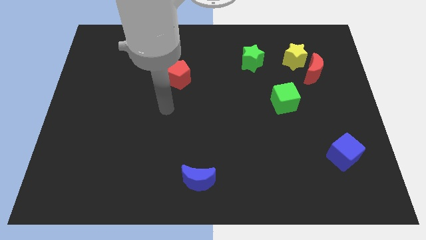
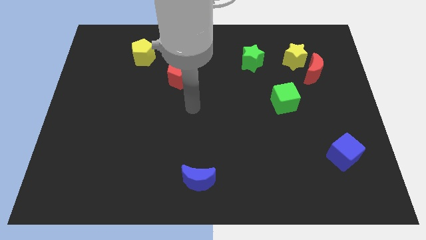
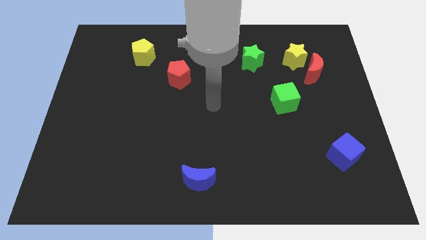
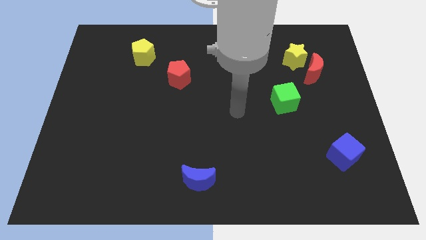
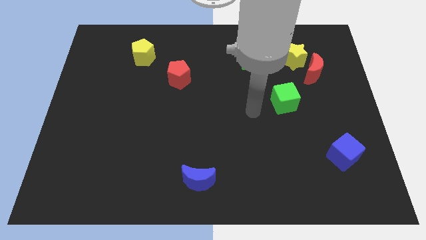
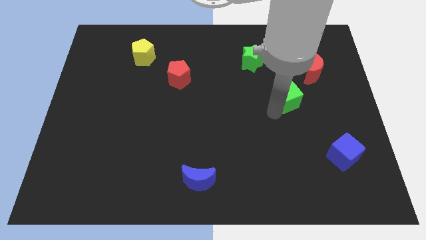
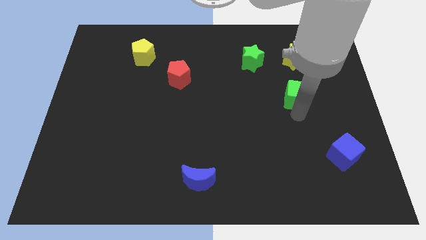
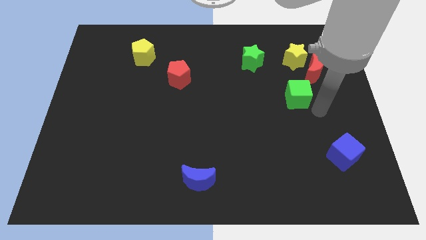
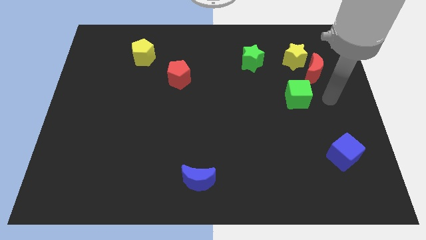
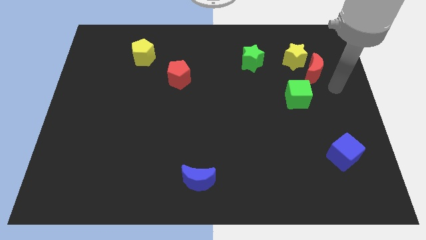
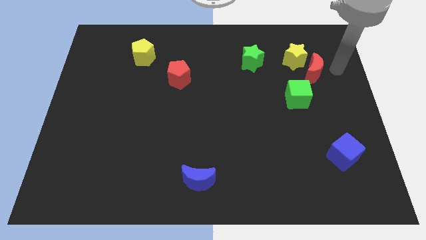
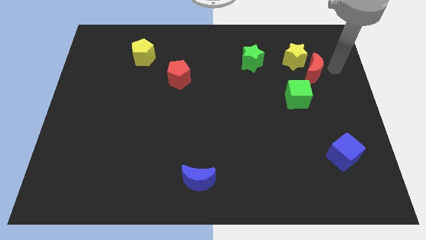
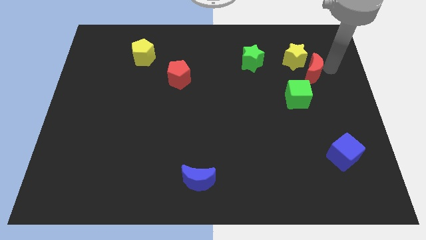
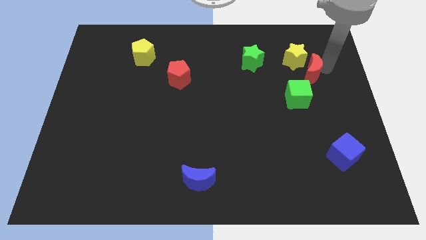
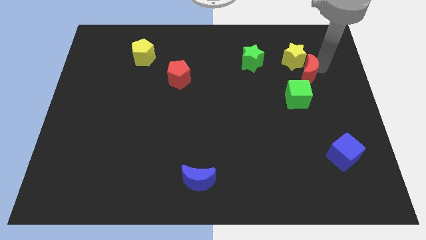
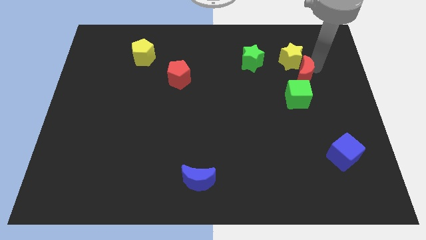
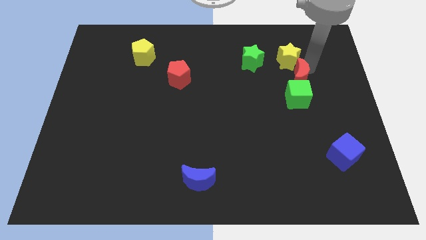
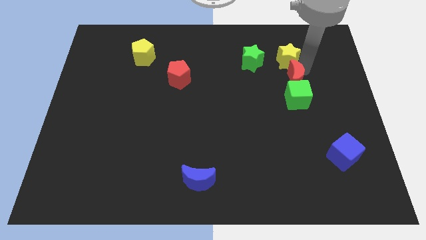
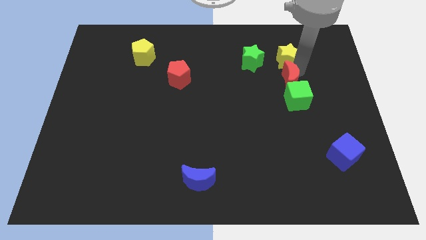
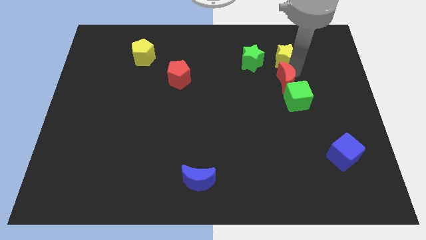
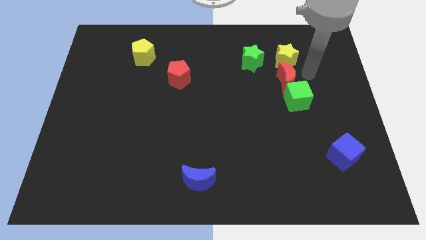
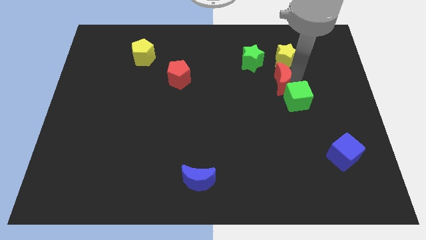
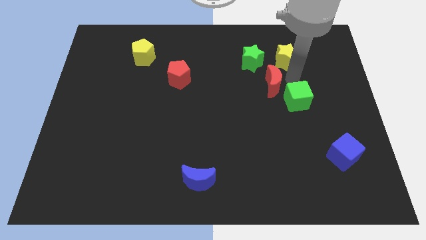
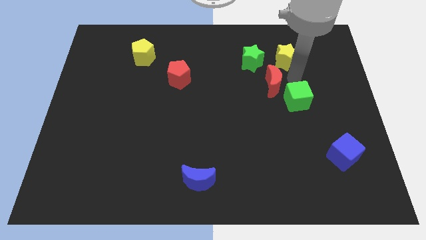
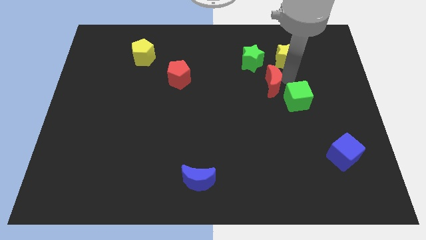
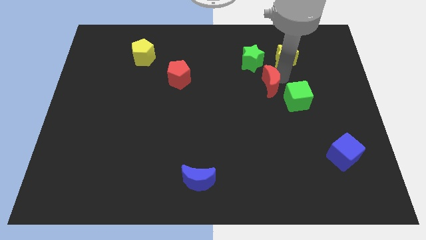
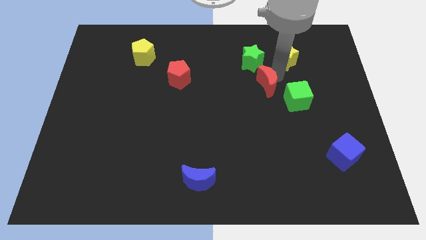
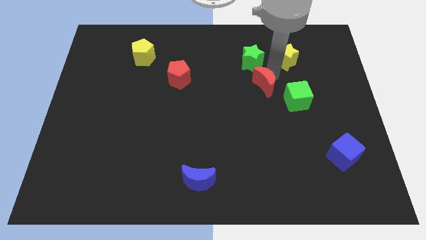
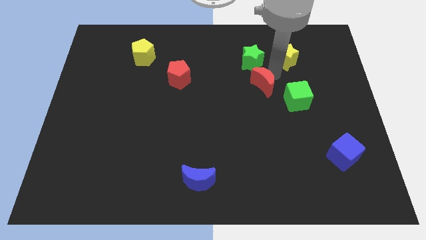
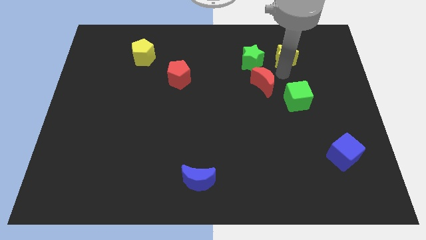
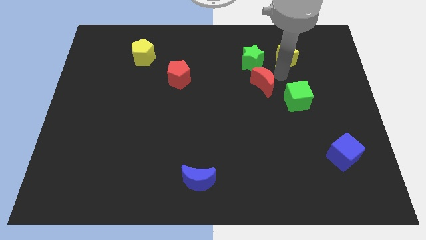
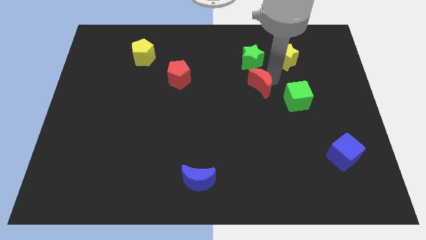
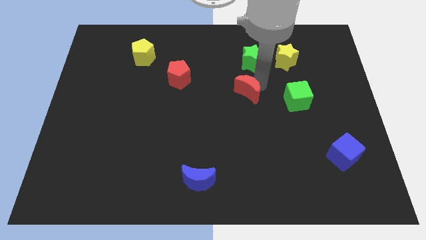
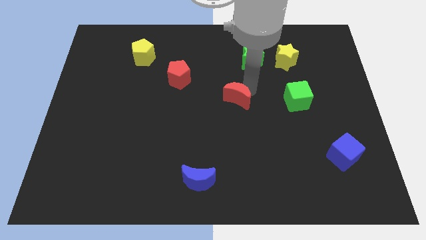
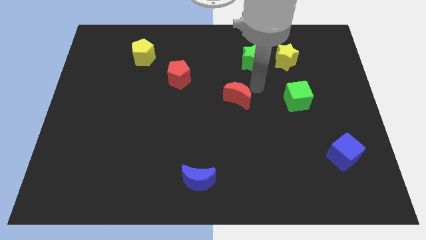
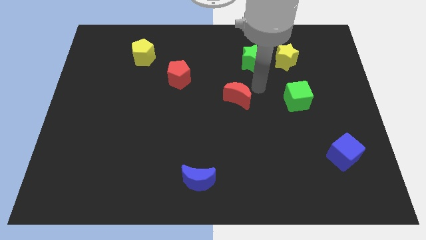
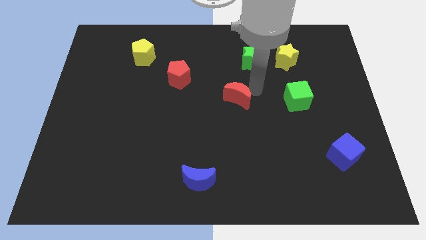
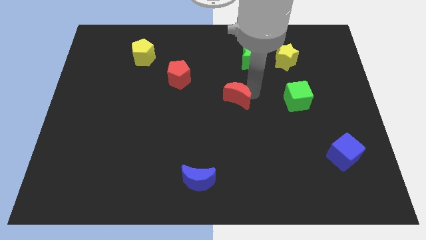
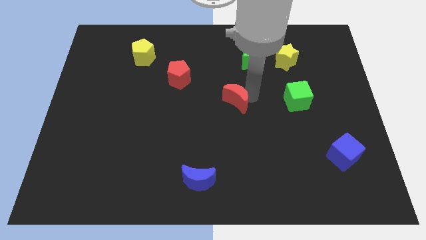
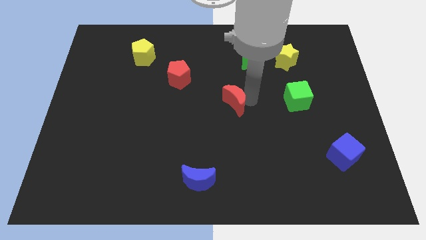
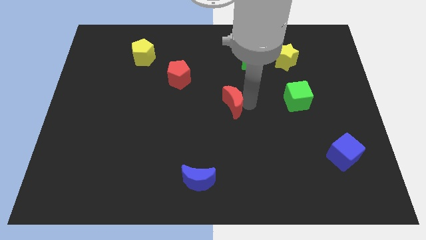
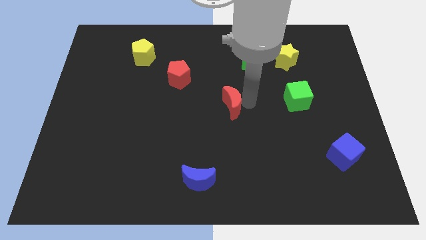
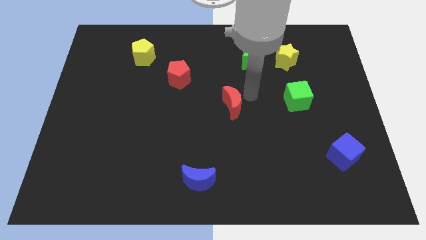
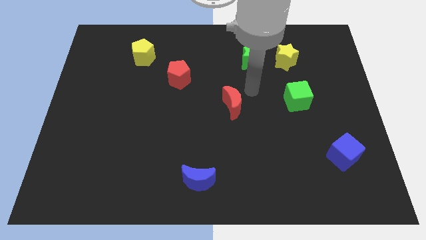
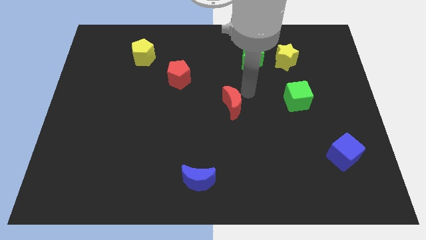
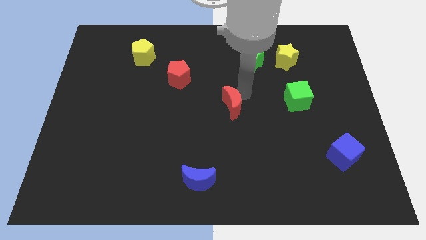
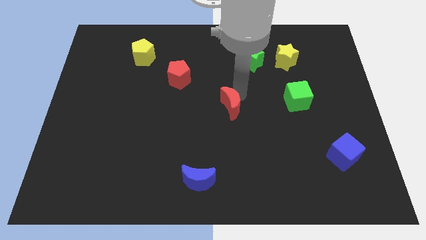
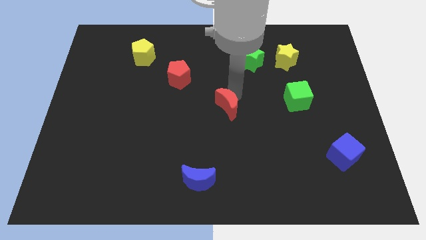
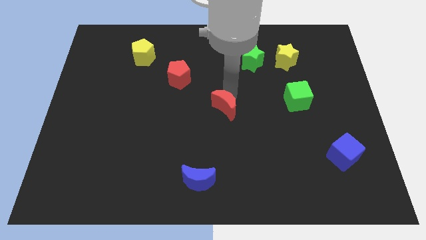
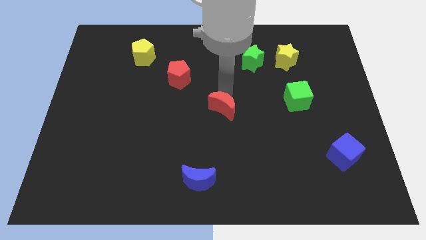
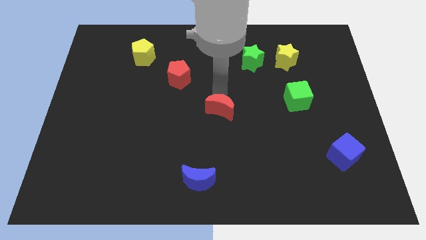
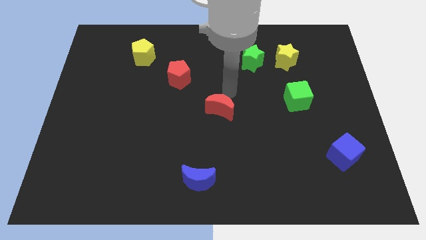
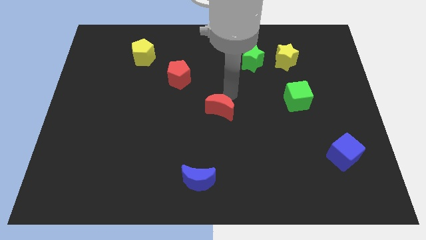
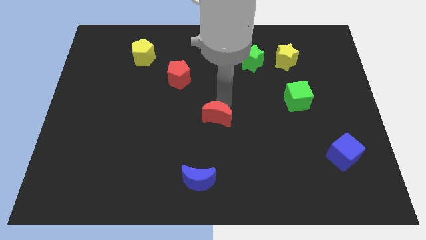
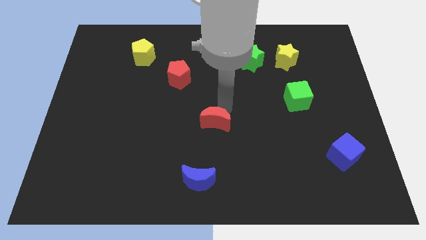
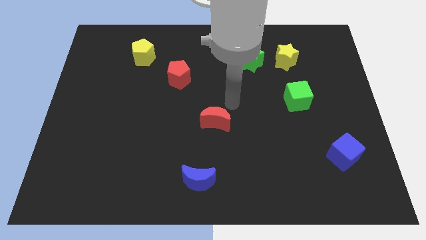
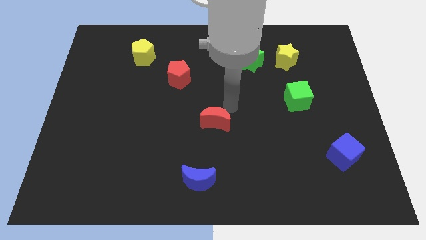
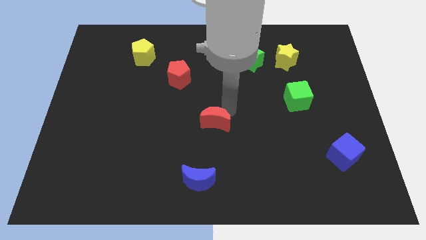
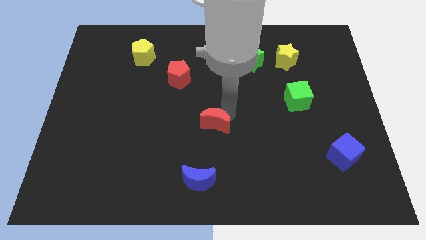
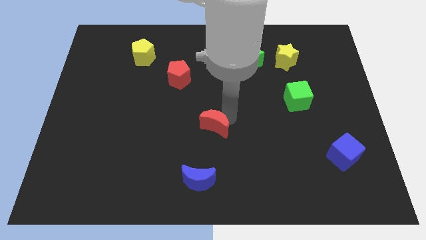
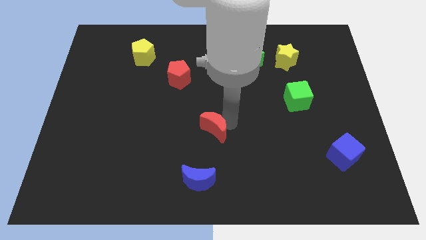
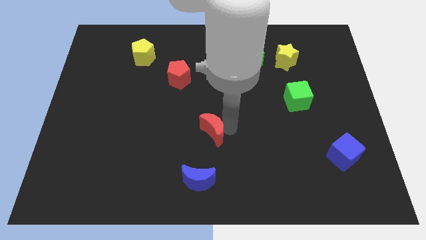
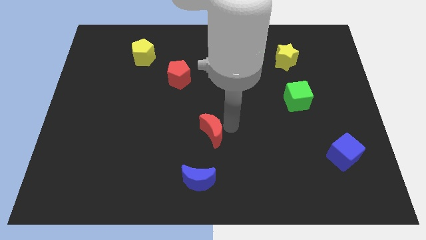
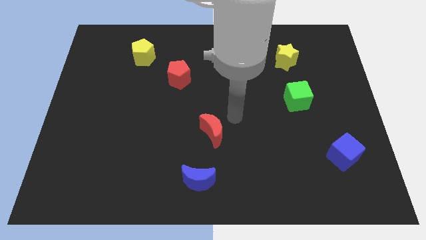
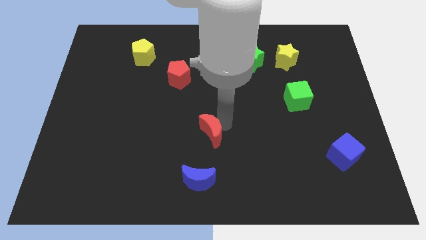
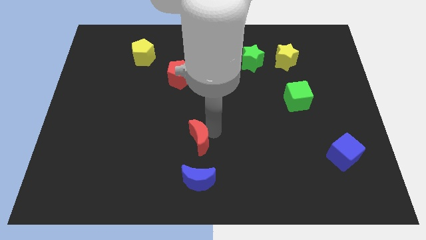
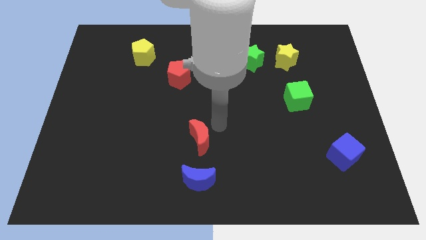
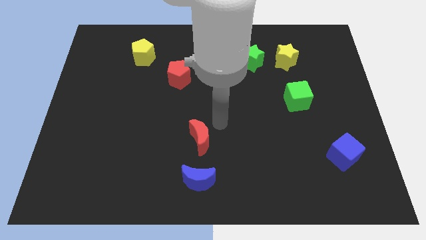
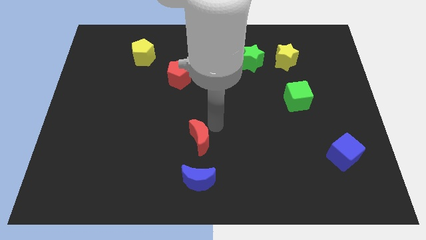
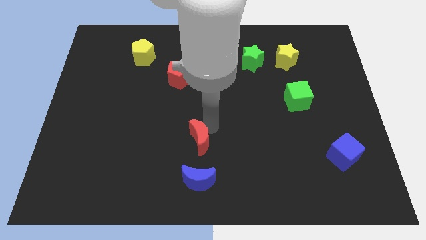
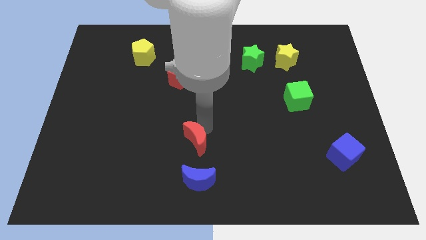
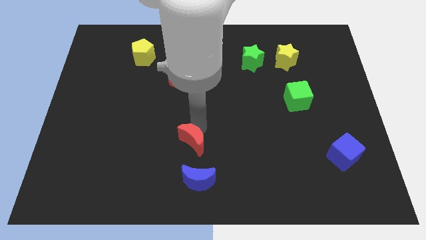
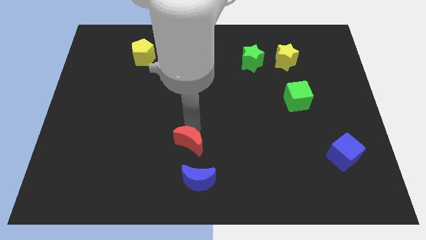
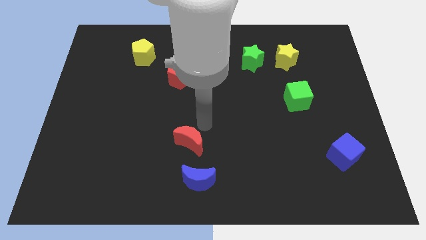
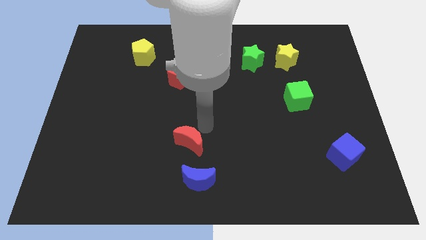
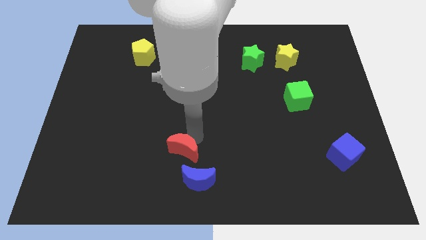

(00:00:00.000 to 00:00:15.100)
put the red moon diagonally up and to the left of the blue moon
